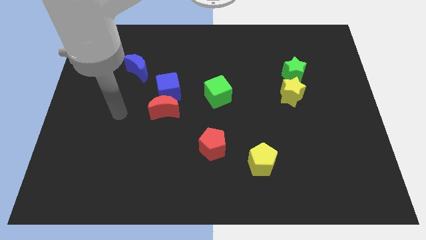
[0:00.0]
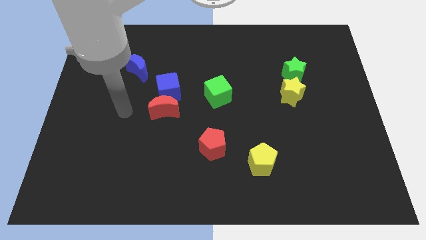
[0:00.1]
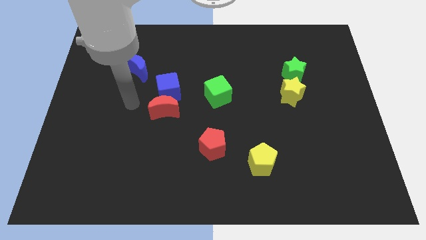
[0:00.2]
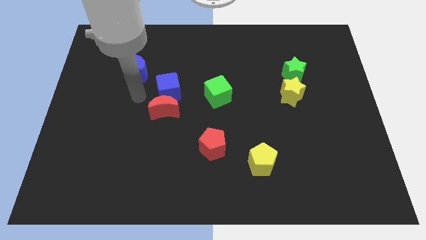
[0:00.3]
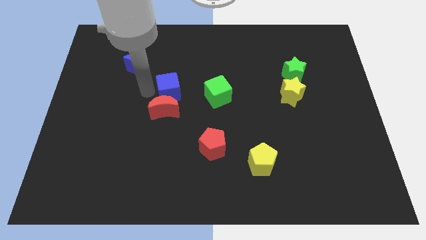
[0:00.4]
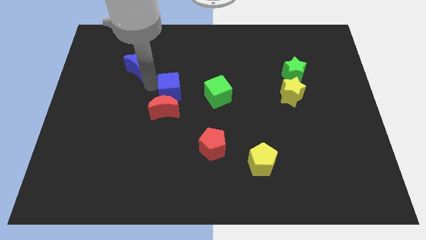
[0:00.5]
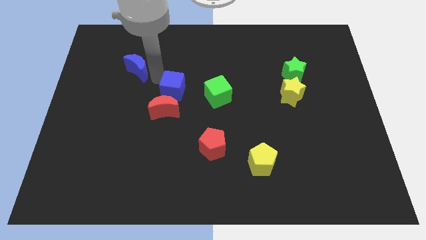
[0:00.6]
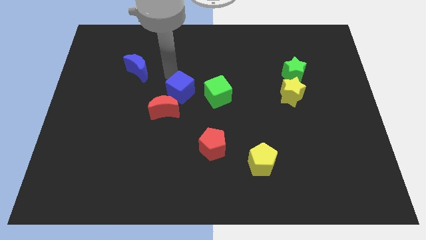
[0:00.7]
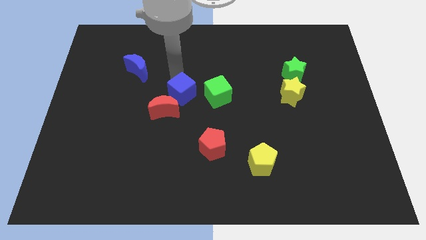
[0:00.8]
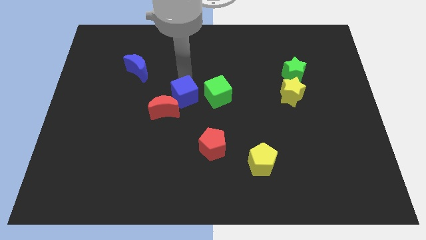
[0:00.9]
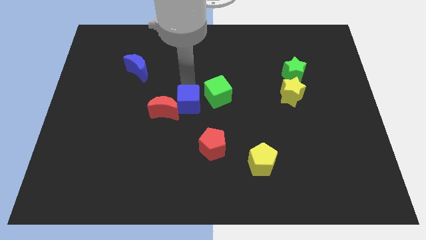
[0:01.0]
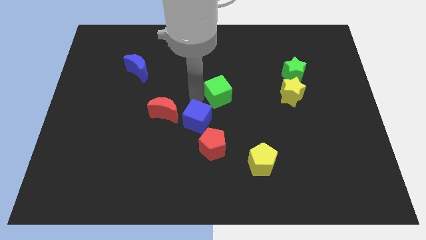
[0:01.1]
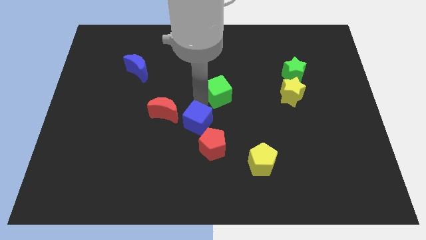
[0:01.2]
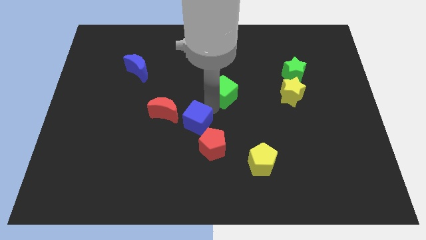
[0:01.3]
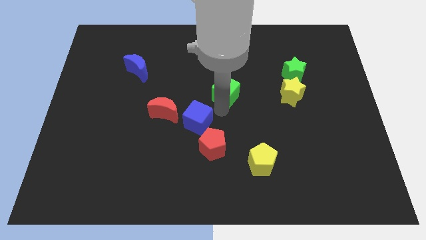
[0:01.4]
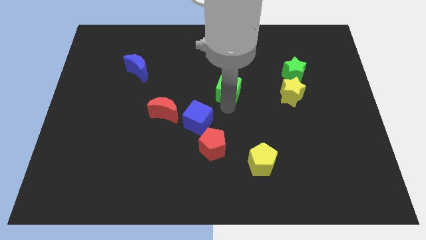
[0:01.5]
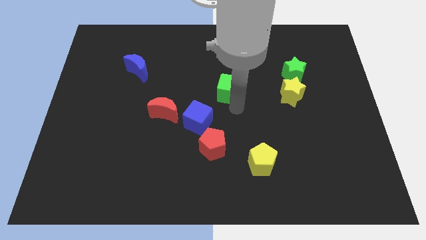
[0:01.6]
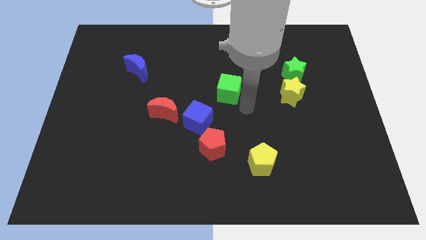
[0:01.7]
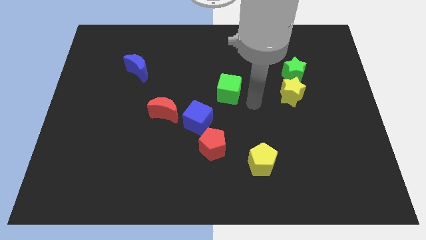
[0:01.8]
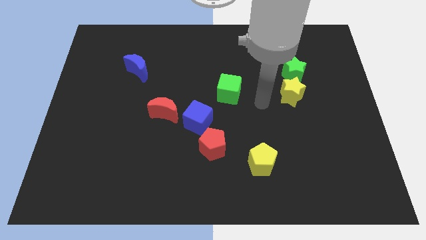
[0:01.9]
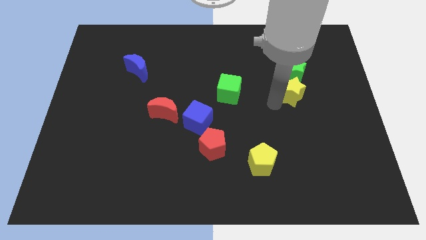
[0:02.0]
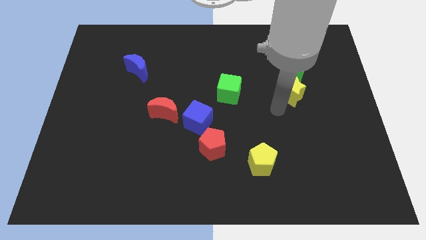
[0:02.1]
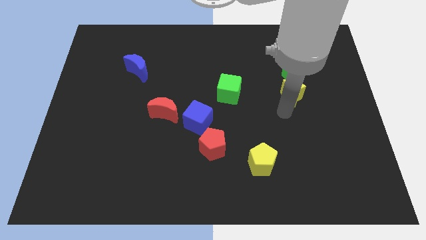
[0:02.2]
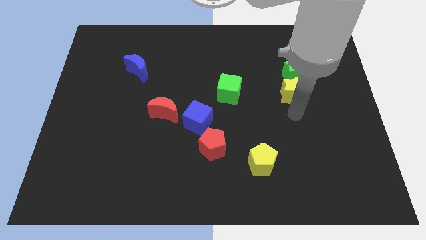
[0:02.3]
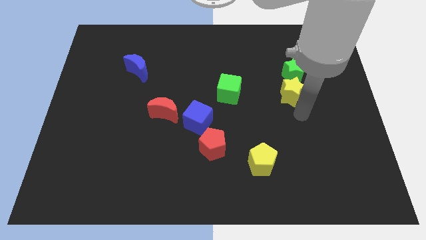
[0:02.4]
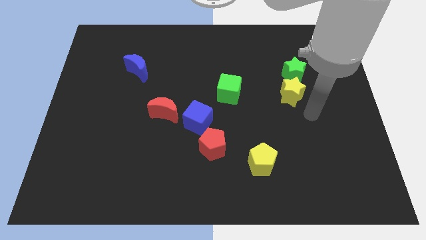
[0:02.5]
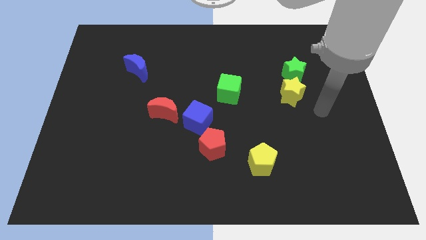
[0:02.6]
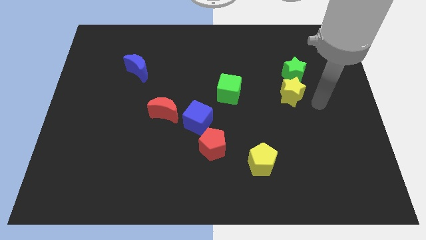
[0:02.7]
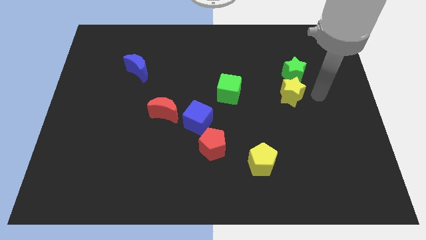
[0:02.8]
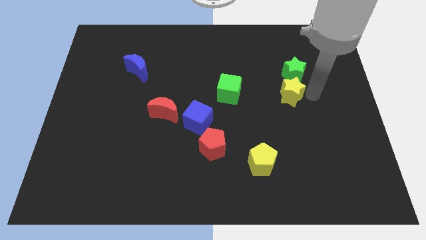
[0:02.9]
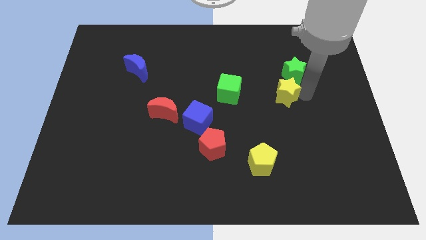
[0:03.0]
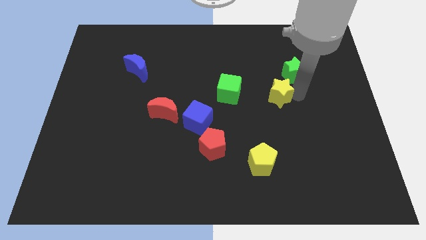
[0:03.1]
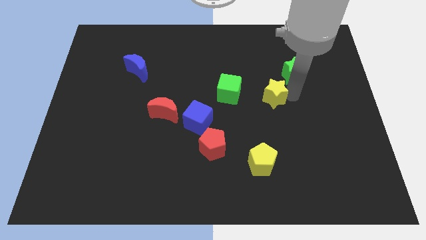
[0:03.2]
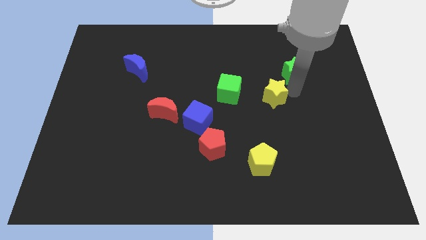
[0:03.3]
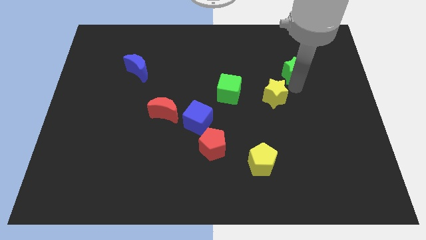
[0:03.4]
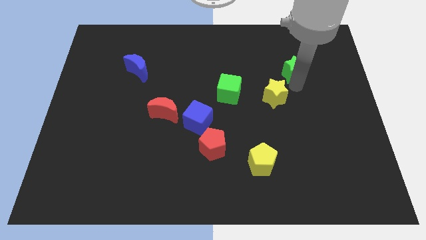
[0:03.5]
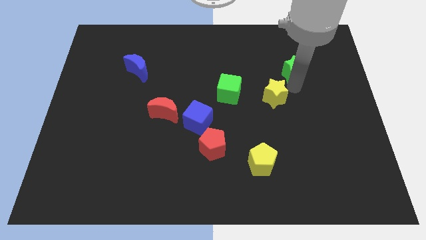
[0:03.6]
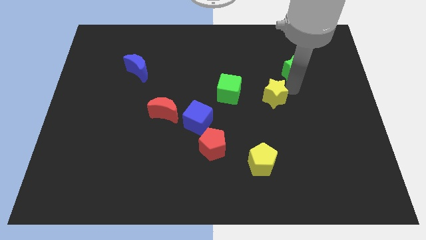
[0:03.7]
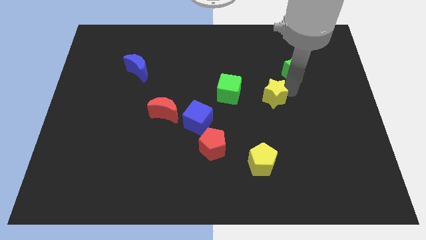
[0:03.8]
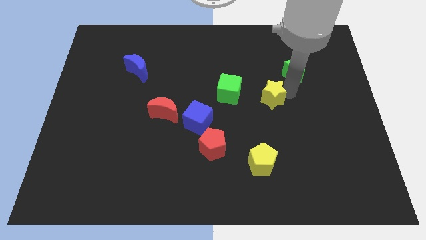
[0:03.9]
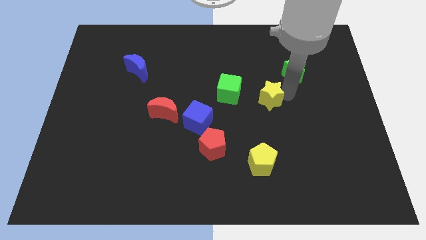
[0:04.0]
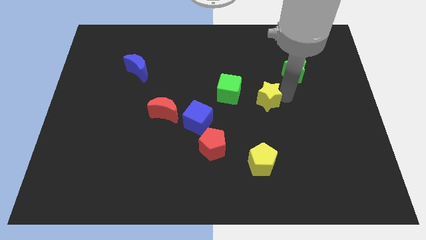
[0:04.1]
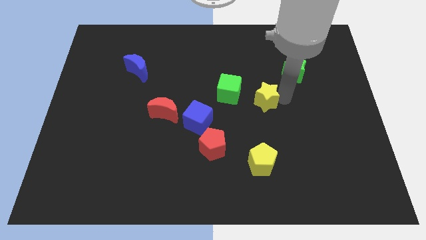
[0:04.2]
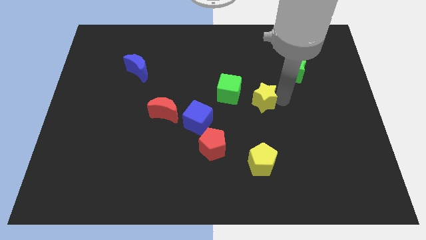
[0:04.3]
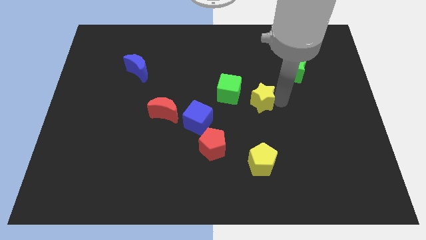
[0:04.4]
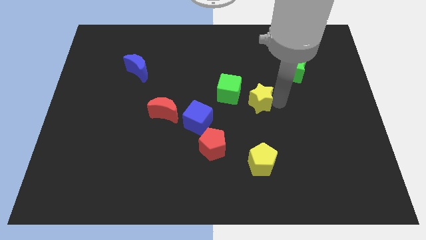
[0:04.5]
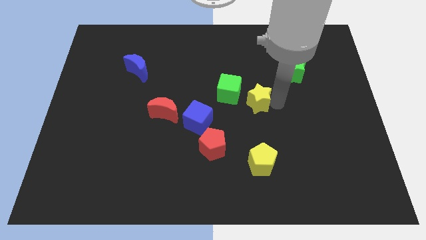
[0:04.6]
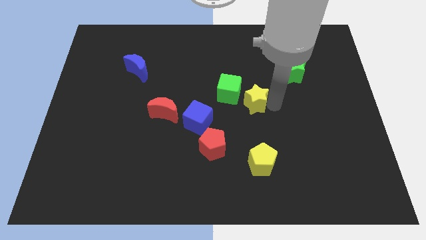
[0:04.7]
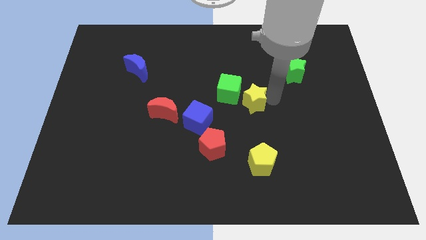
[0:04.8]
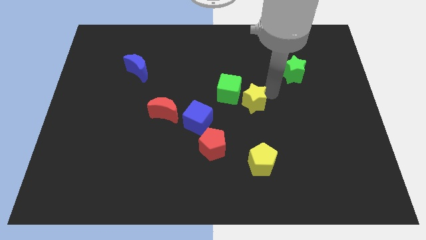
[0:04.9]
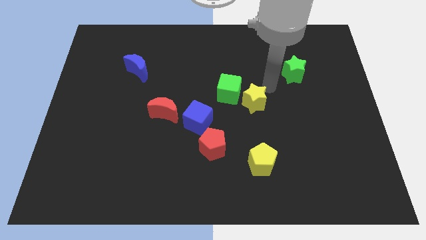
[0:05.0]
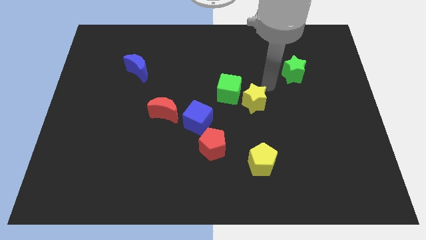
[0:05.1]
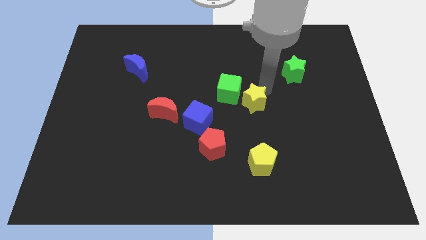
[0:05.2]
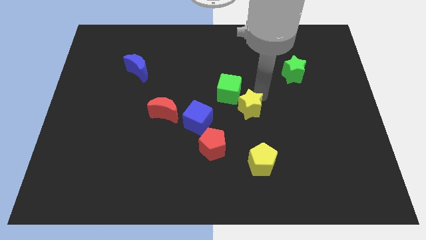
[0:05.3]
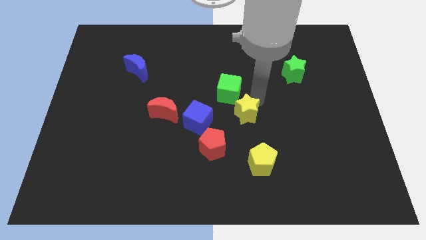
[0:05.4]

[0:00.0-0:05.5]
move the yellow star to the top right of the red pentagon

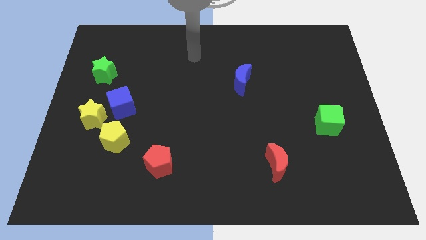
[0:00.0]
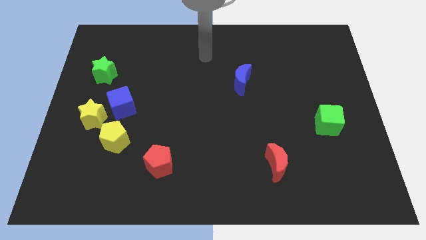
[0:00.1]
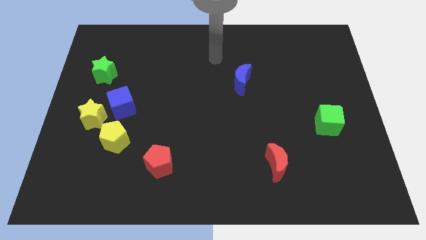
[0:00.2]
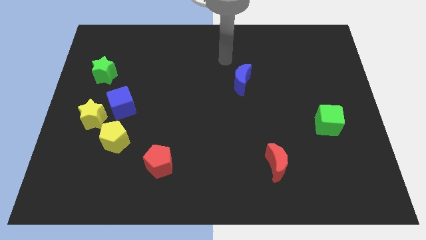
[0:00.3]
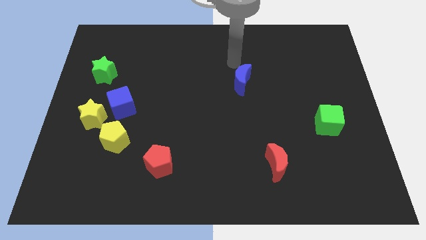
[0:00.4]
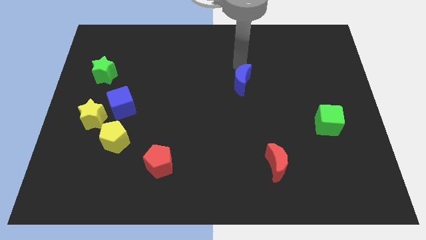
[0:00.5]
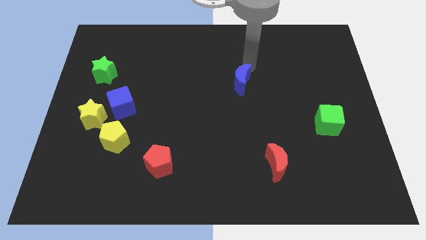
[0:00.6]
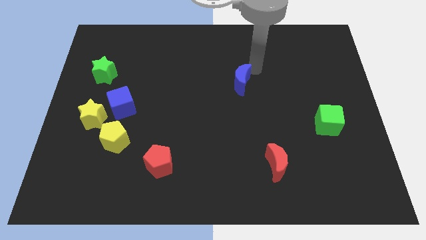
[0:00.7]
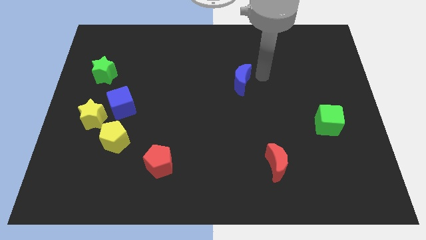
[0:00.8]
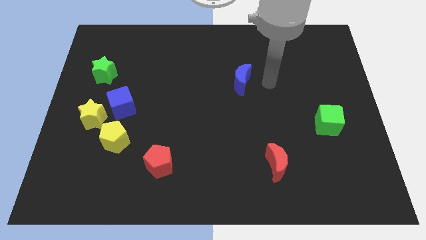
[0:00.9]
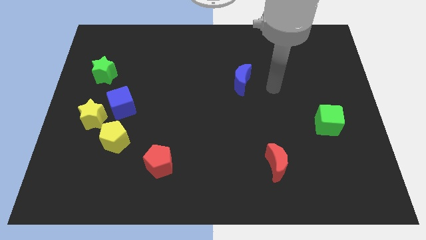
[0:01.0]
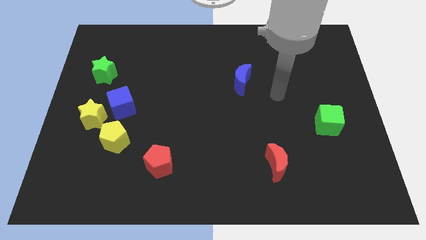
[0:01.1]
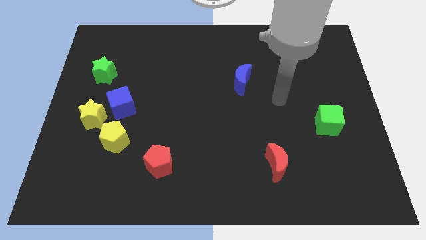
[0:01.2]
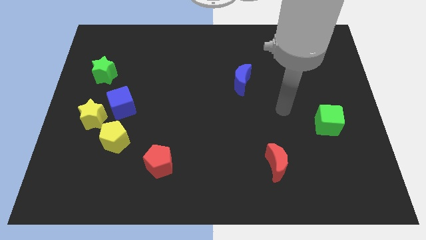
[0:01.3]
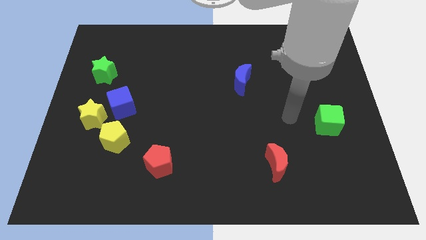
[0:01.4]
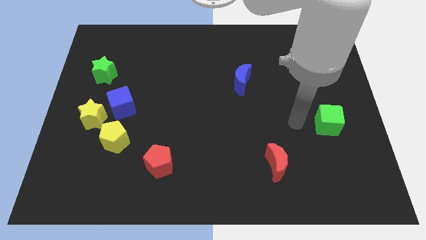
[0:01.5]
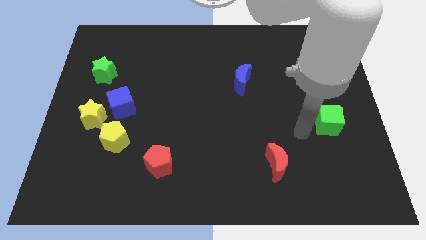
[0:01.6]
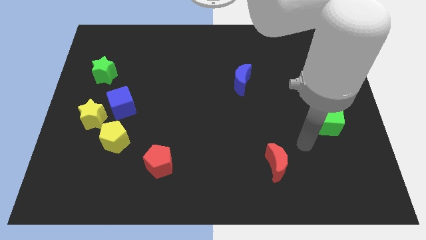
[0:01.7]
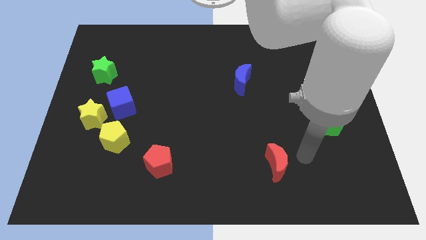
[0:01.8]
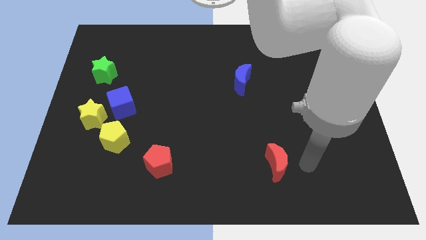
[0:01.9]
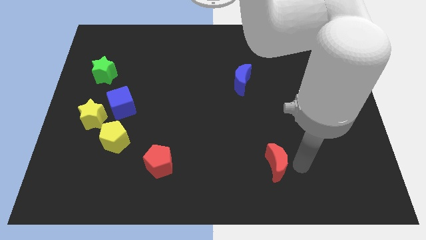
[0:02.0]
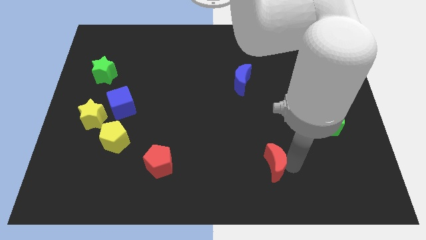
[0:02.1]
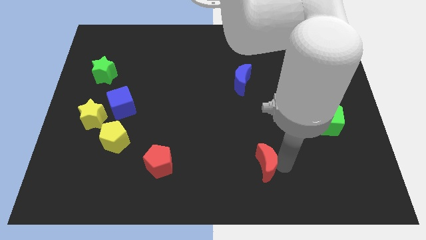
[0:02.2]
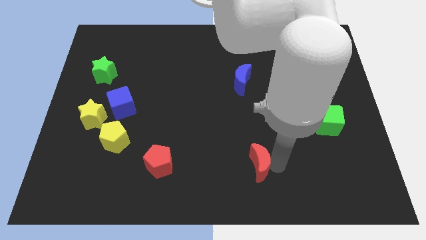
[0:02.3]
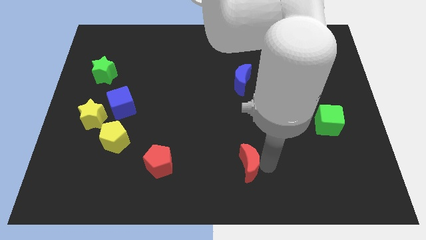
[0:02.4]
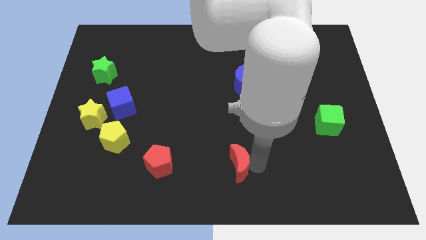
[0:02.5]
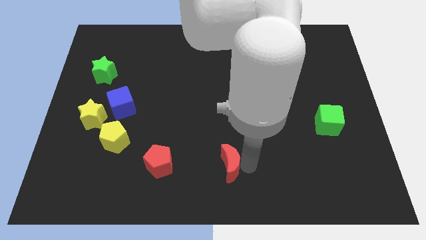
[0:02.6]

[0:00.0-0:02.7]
slide the red moon just right of the red pentagon
